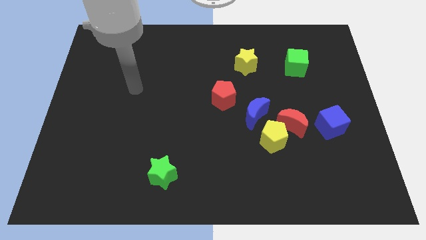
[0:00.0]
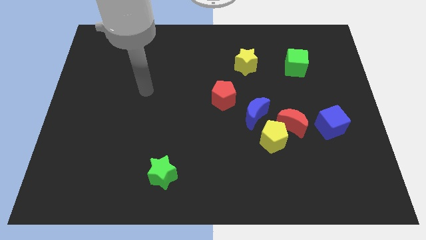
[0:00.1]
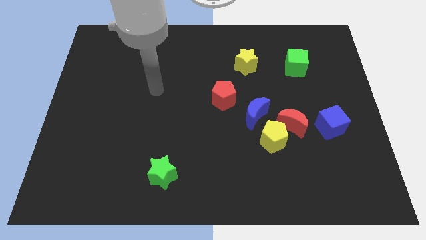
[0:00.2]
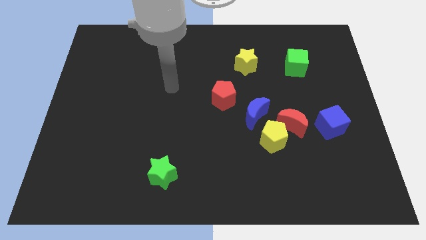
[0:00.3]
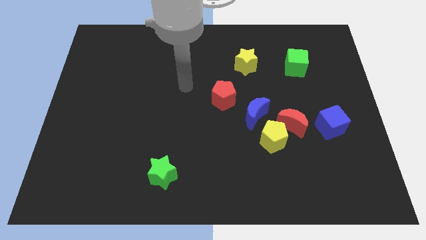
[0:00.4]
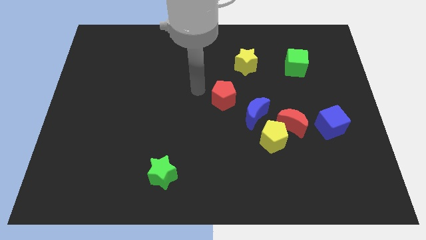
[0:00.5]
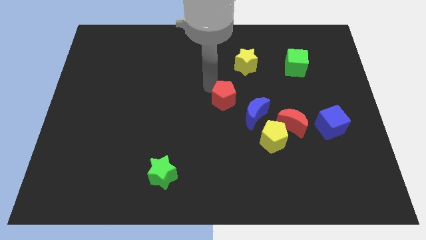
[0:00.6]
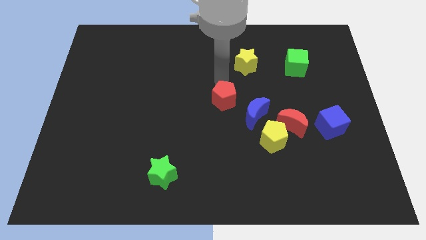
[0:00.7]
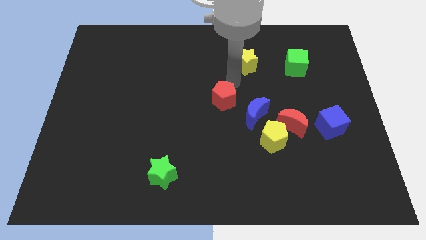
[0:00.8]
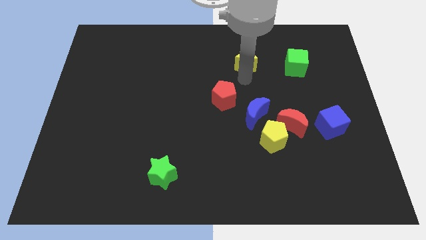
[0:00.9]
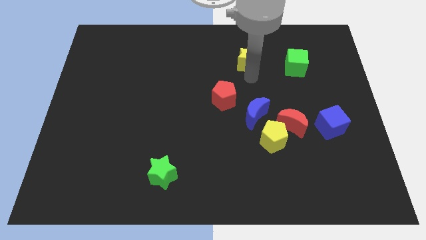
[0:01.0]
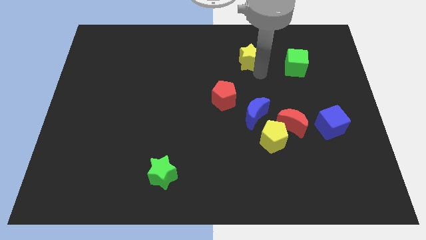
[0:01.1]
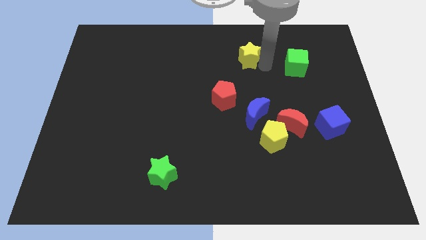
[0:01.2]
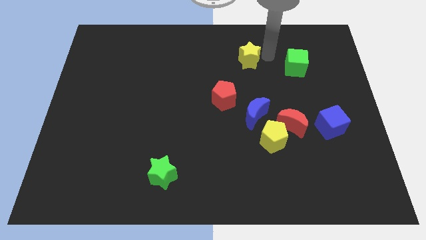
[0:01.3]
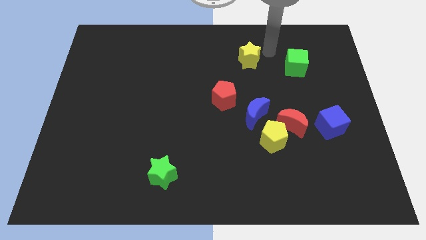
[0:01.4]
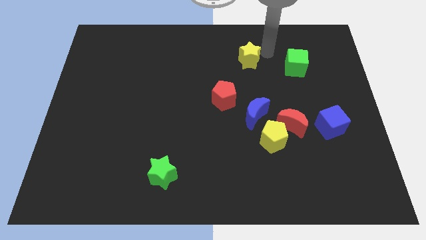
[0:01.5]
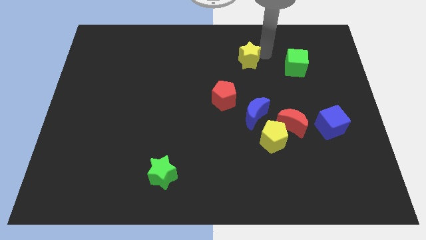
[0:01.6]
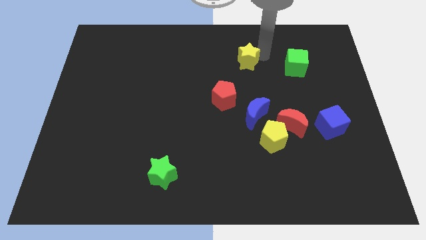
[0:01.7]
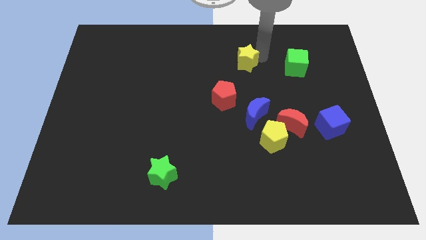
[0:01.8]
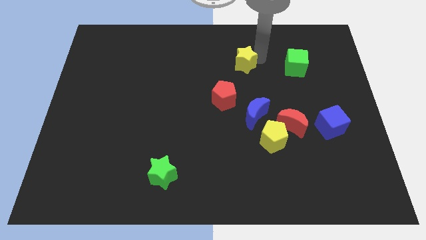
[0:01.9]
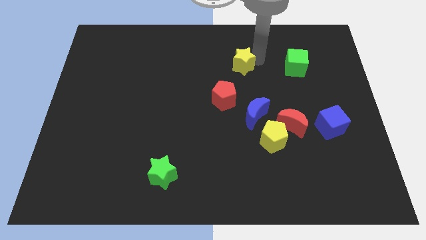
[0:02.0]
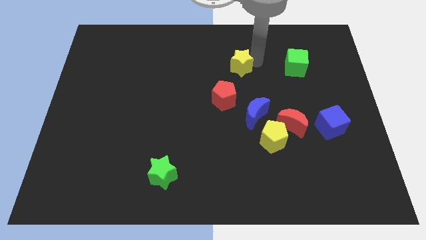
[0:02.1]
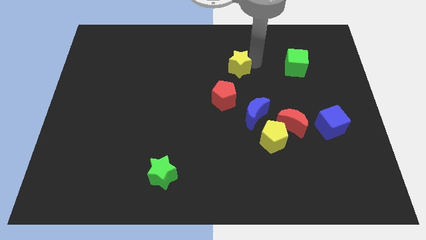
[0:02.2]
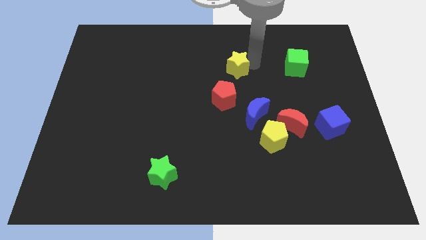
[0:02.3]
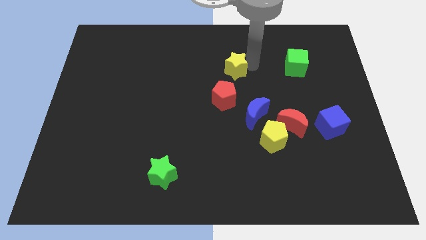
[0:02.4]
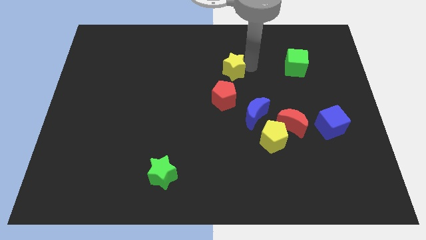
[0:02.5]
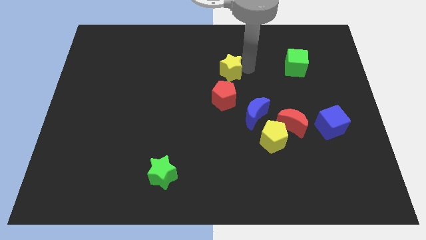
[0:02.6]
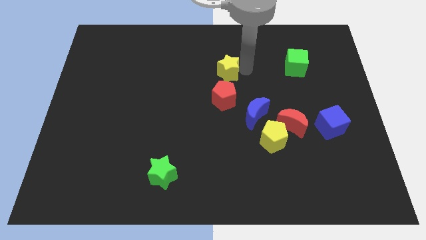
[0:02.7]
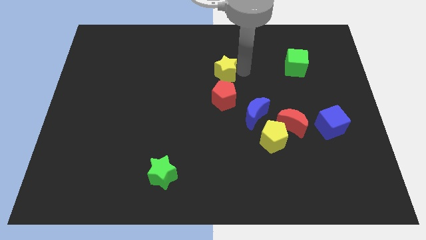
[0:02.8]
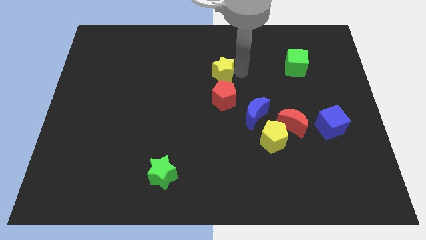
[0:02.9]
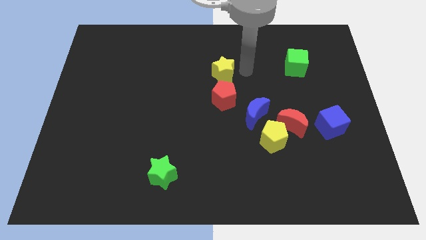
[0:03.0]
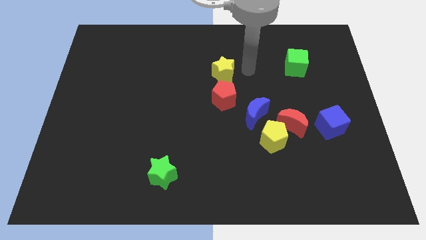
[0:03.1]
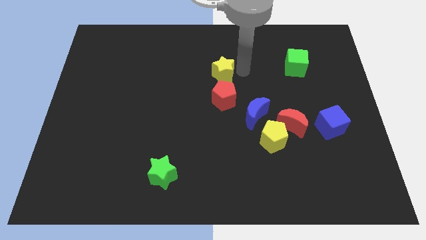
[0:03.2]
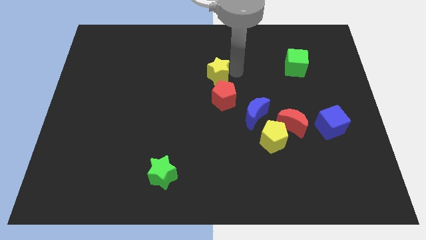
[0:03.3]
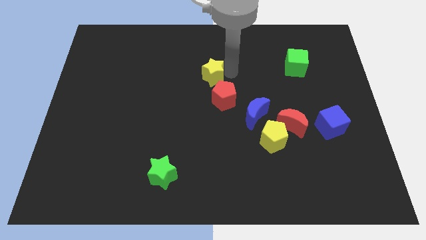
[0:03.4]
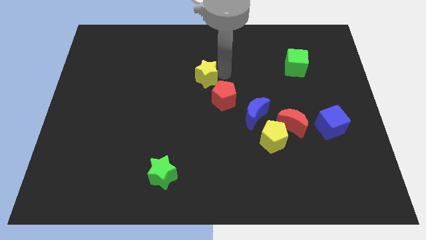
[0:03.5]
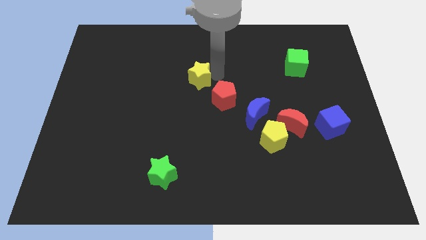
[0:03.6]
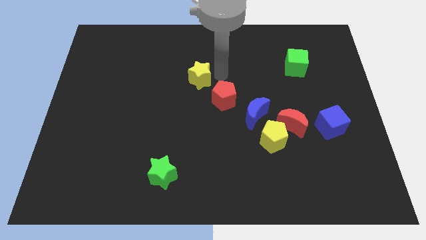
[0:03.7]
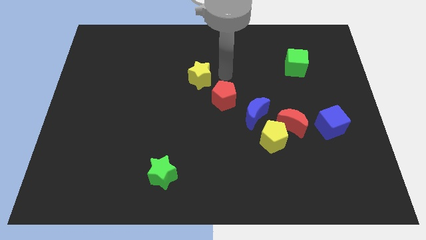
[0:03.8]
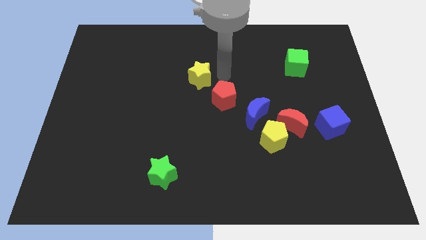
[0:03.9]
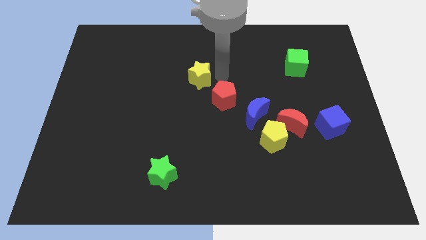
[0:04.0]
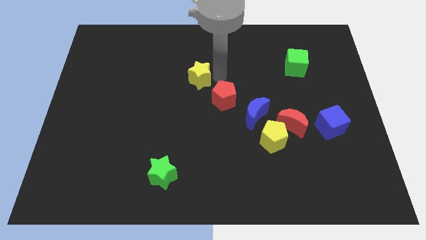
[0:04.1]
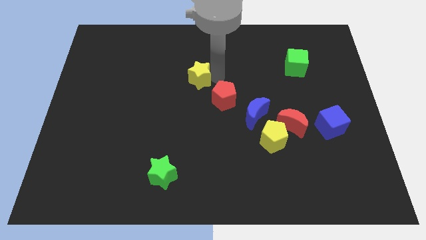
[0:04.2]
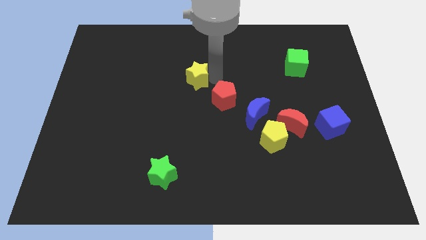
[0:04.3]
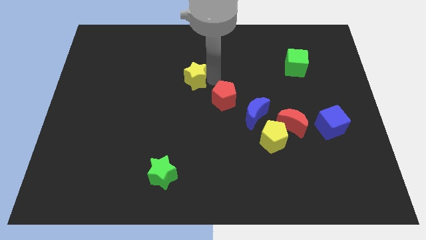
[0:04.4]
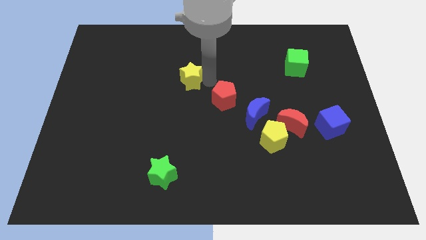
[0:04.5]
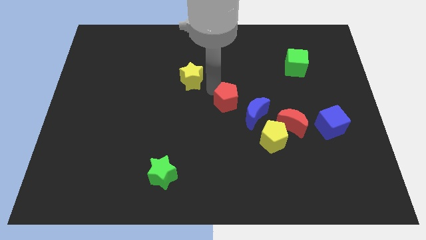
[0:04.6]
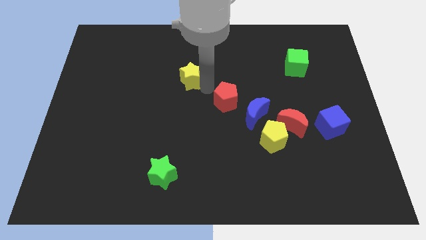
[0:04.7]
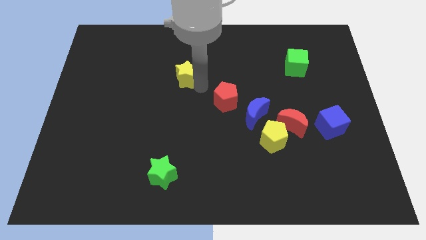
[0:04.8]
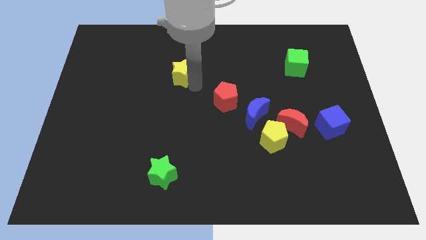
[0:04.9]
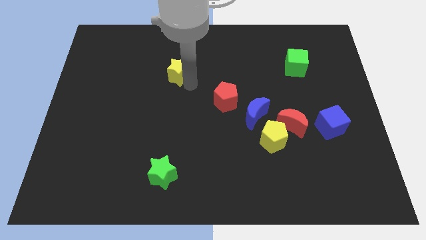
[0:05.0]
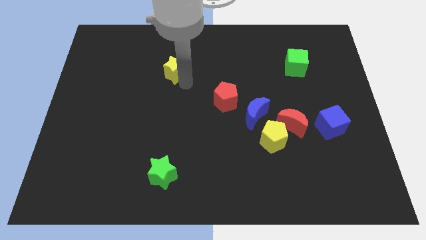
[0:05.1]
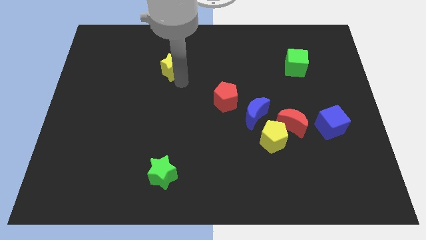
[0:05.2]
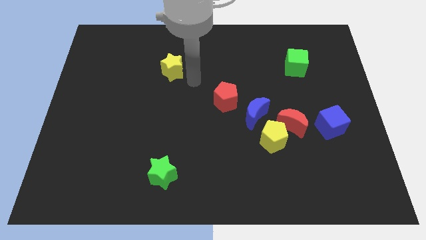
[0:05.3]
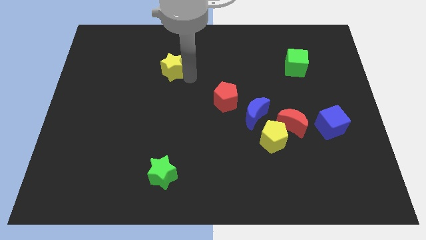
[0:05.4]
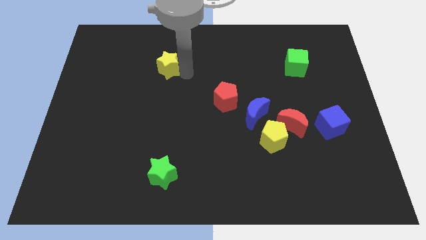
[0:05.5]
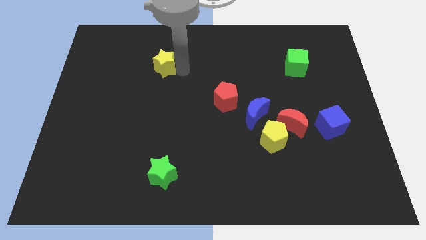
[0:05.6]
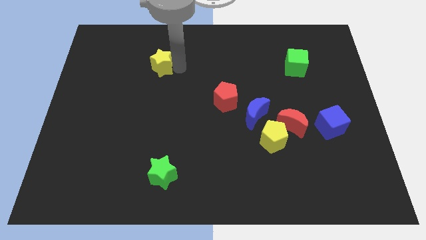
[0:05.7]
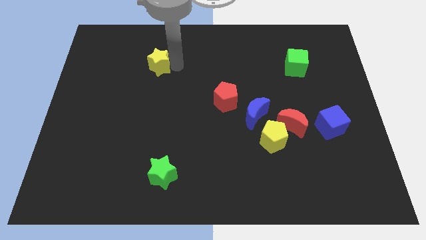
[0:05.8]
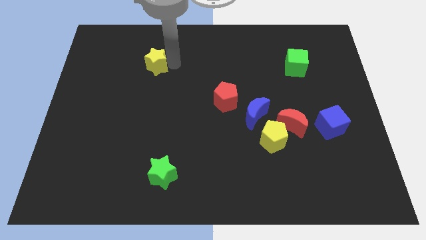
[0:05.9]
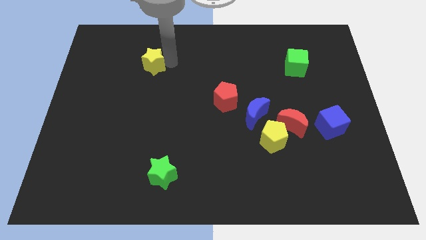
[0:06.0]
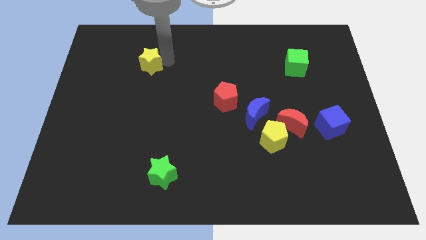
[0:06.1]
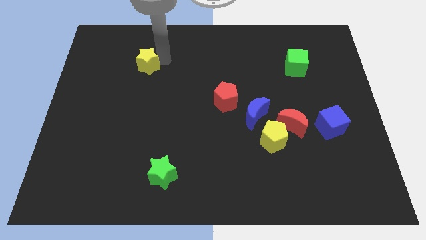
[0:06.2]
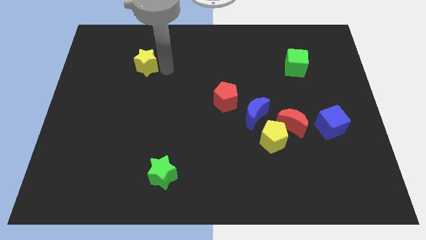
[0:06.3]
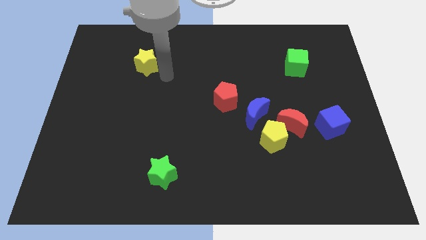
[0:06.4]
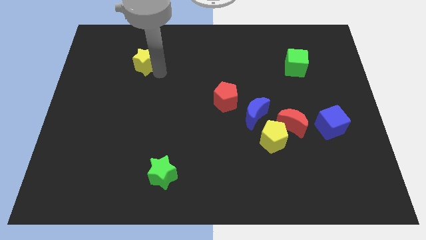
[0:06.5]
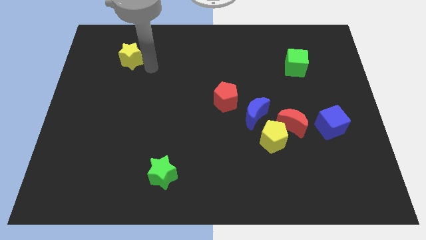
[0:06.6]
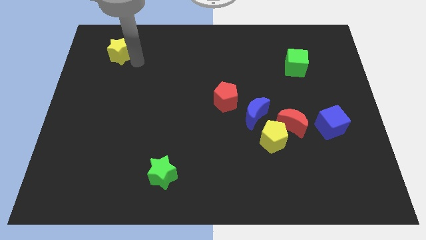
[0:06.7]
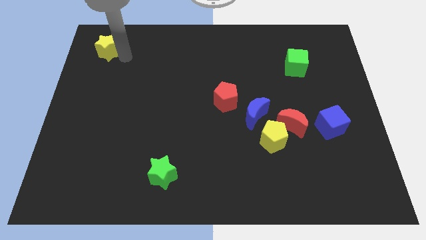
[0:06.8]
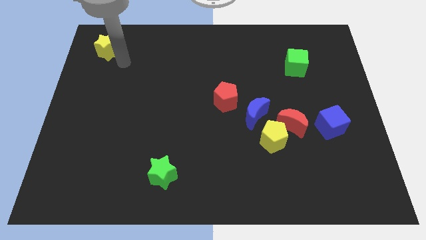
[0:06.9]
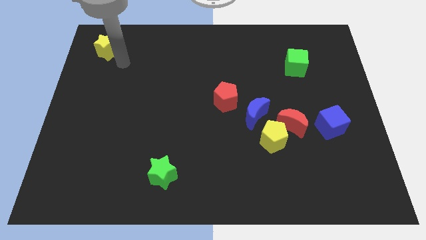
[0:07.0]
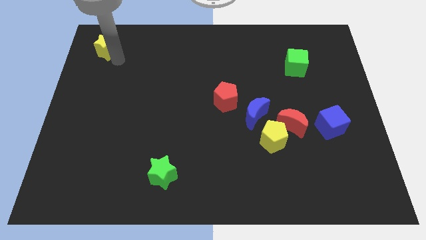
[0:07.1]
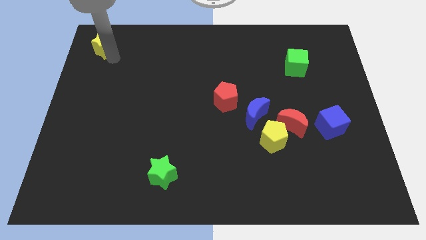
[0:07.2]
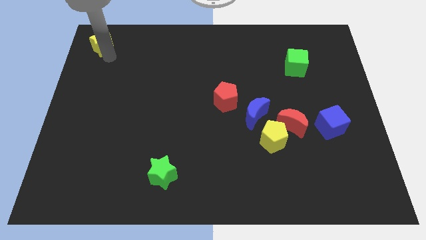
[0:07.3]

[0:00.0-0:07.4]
put the yellow star to the top left
